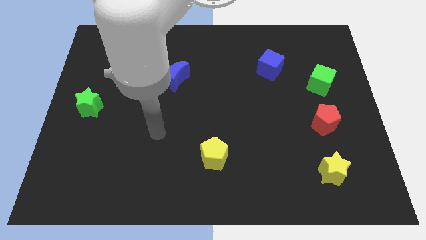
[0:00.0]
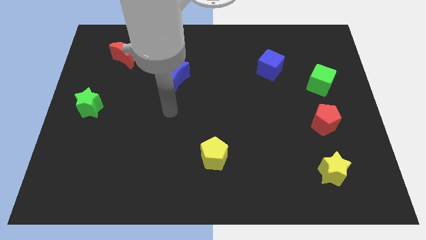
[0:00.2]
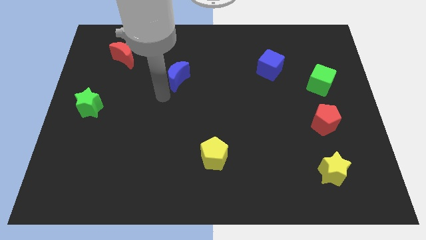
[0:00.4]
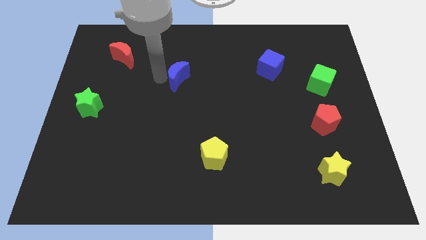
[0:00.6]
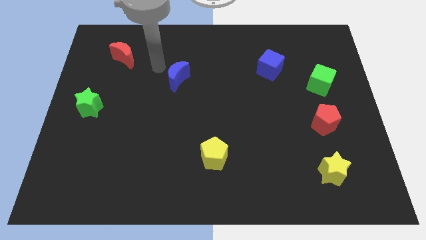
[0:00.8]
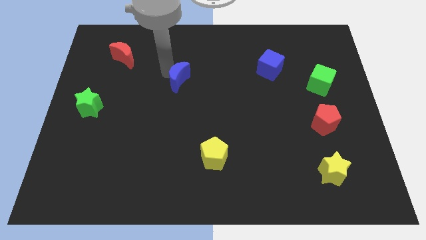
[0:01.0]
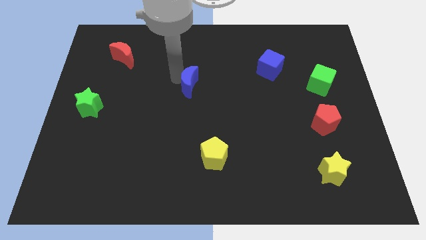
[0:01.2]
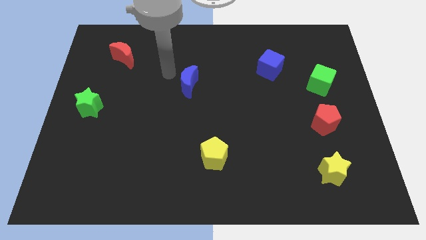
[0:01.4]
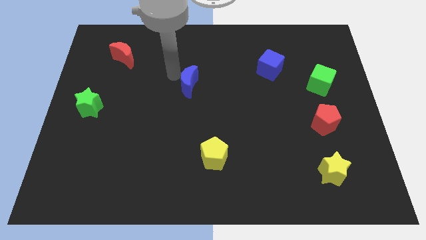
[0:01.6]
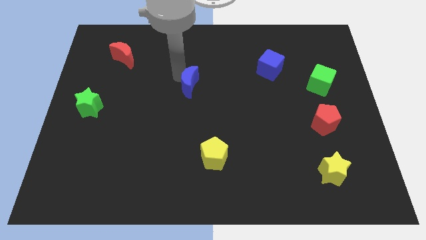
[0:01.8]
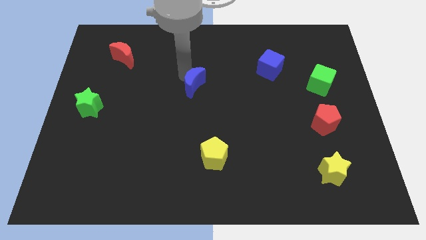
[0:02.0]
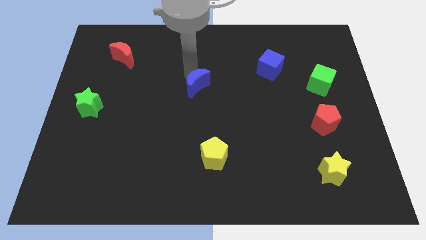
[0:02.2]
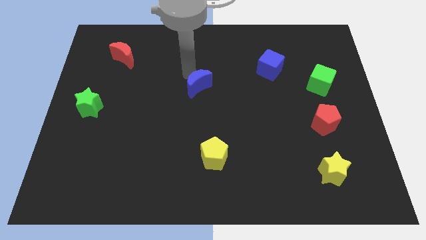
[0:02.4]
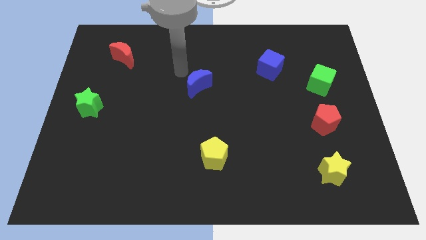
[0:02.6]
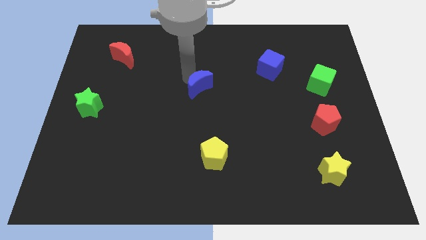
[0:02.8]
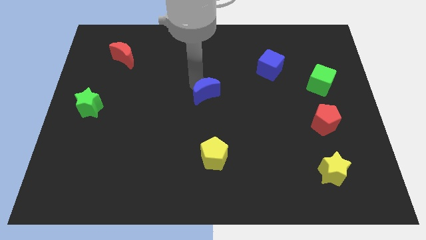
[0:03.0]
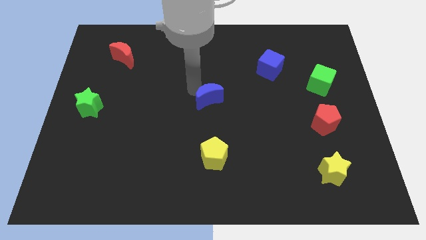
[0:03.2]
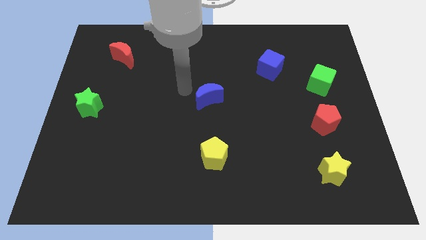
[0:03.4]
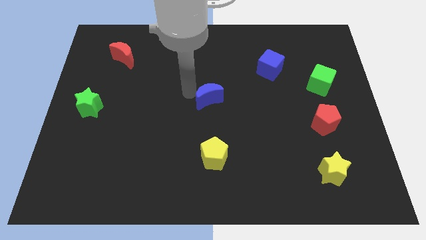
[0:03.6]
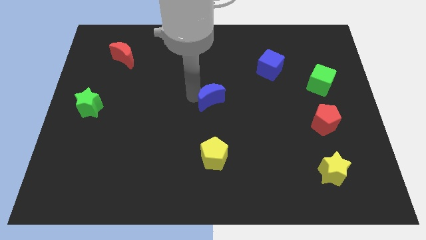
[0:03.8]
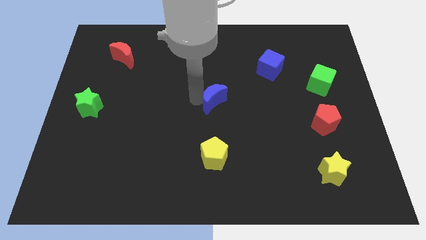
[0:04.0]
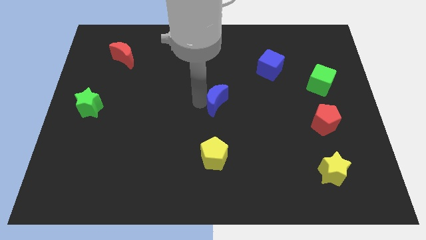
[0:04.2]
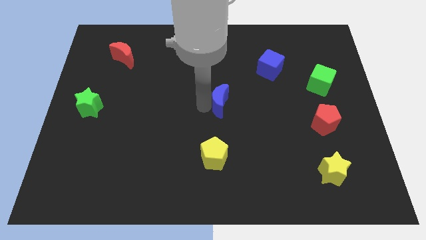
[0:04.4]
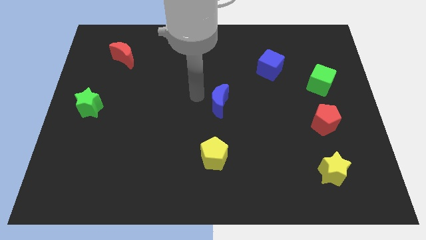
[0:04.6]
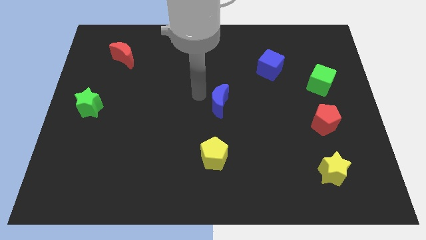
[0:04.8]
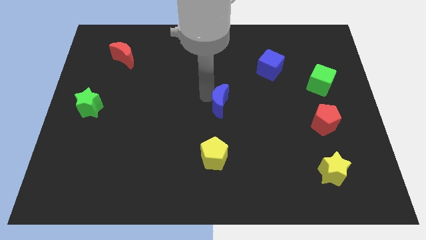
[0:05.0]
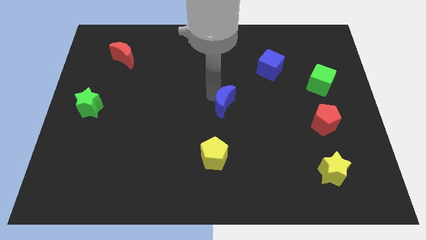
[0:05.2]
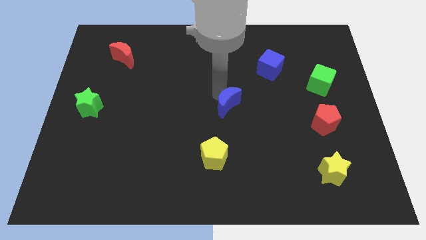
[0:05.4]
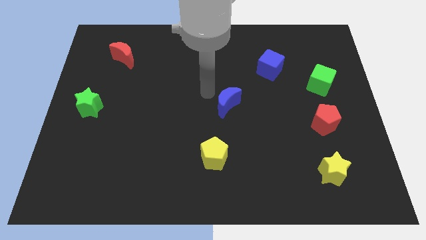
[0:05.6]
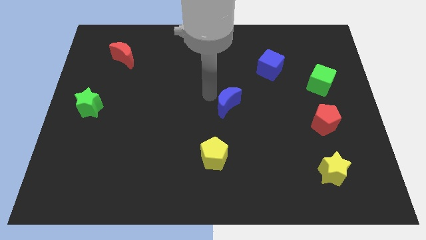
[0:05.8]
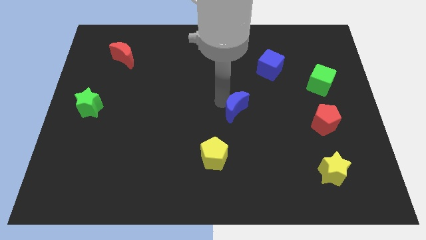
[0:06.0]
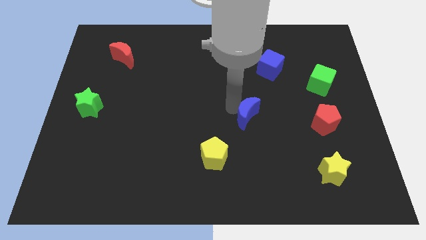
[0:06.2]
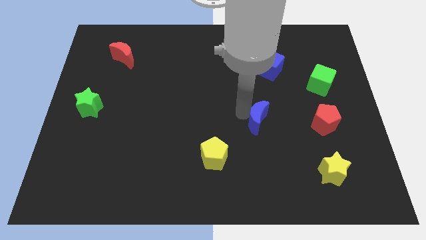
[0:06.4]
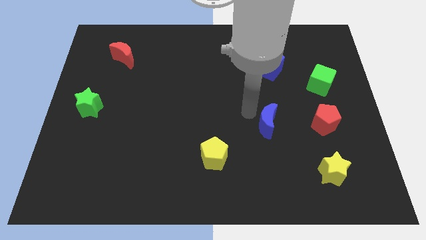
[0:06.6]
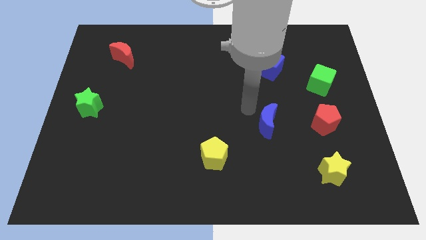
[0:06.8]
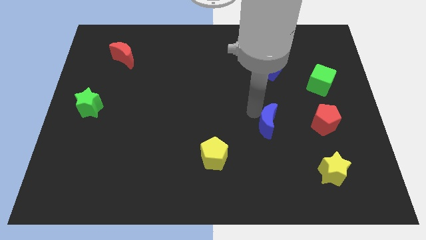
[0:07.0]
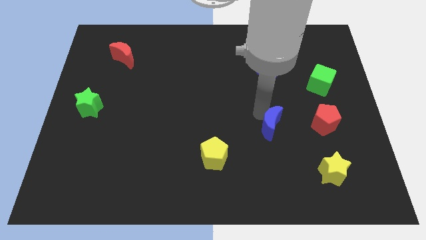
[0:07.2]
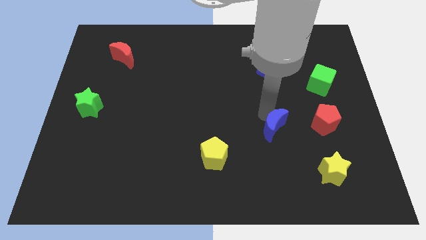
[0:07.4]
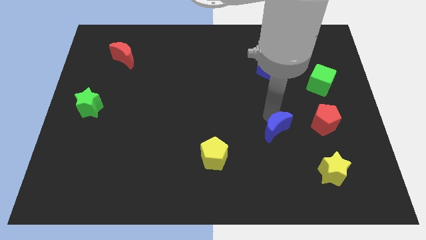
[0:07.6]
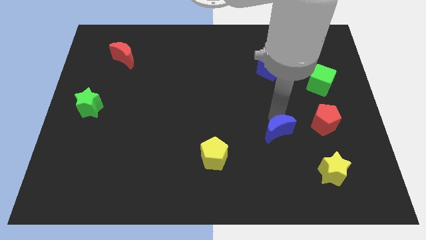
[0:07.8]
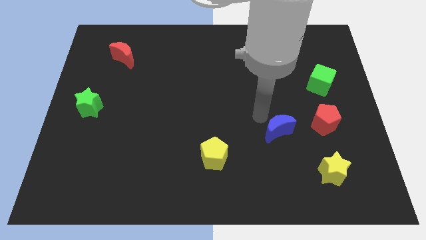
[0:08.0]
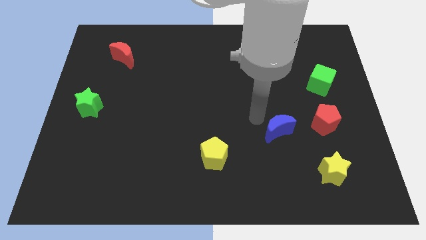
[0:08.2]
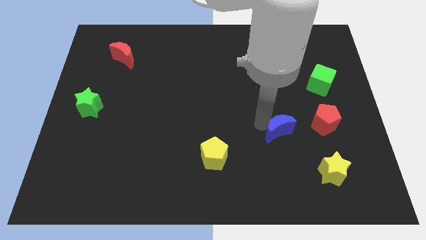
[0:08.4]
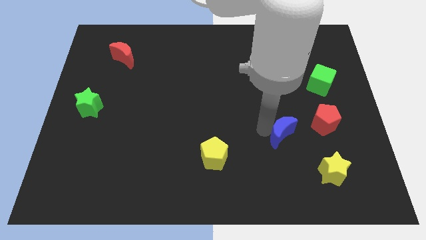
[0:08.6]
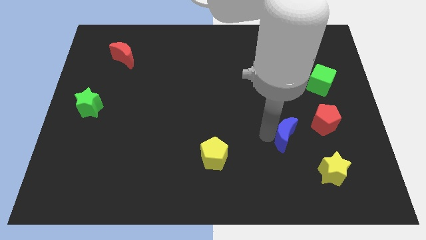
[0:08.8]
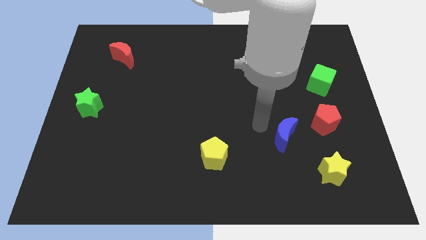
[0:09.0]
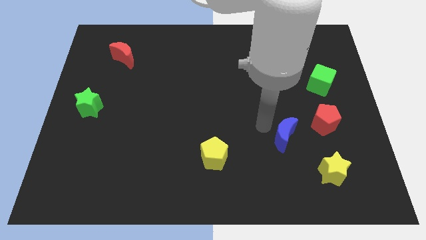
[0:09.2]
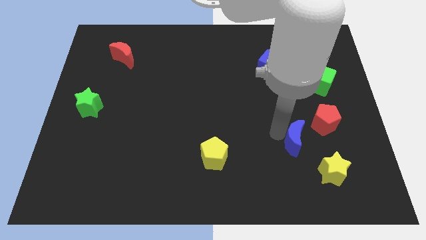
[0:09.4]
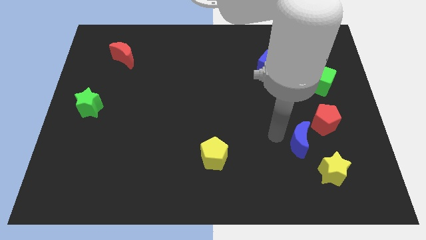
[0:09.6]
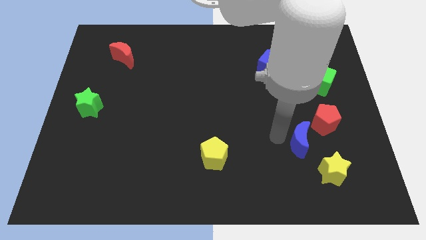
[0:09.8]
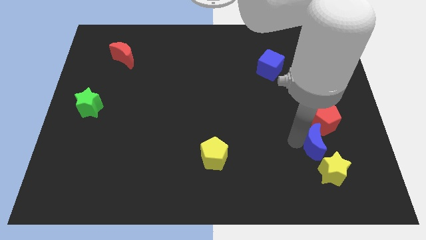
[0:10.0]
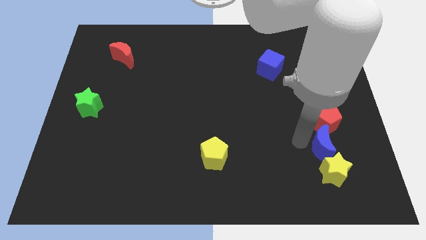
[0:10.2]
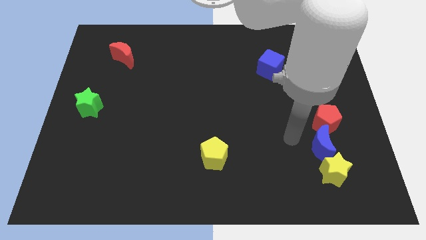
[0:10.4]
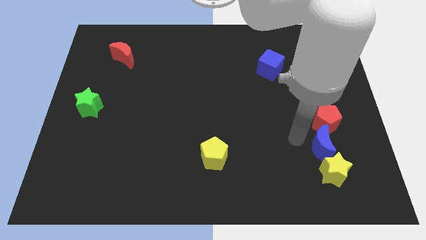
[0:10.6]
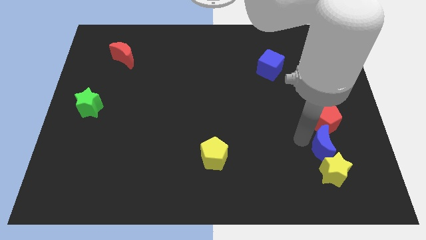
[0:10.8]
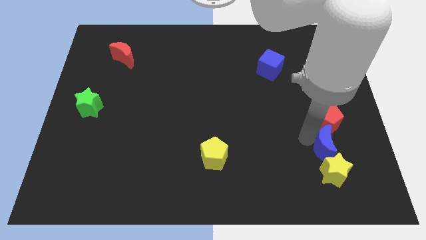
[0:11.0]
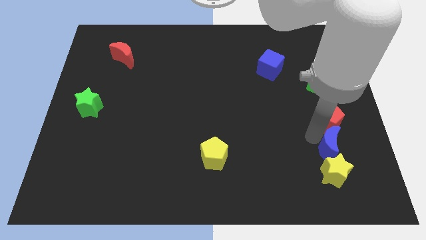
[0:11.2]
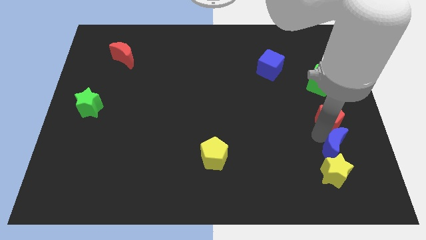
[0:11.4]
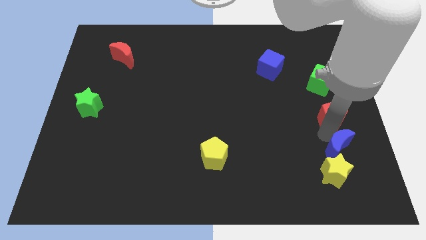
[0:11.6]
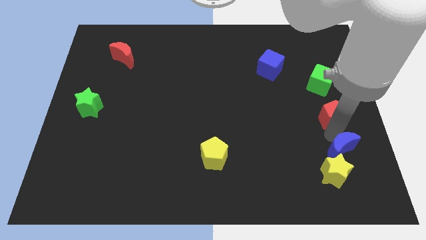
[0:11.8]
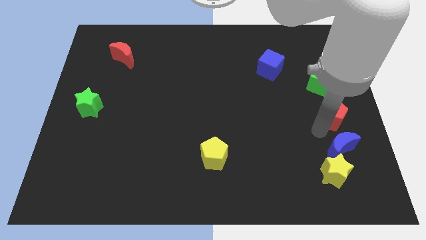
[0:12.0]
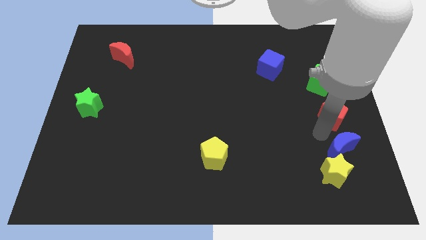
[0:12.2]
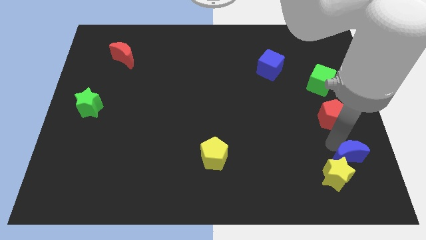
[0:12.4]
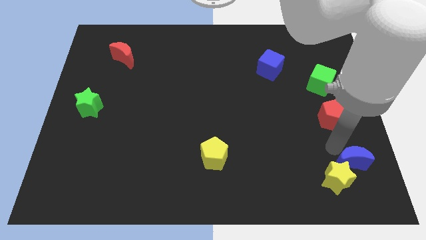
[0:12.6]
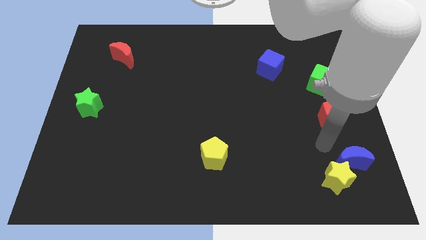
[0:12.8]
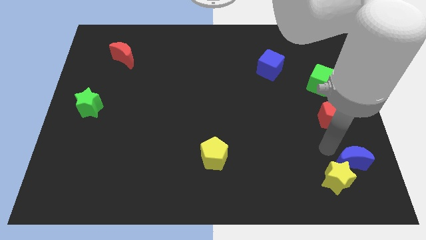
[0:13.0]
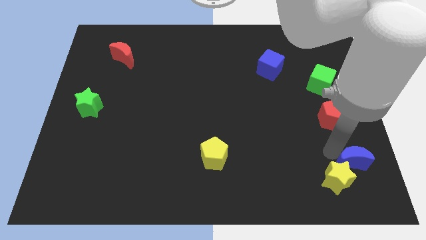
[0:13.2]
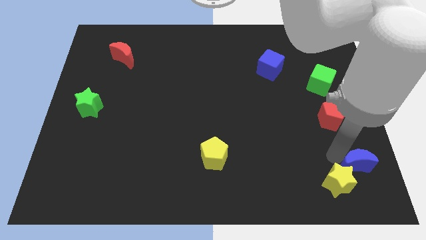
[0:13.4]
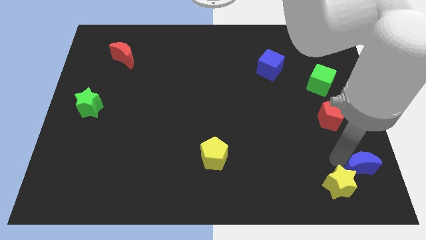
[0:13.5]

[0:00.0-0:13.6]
put the blue moon to the bottom right corner
